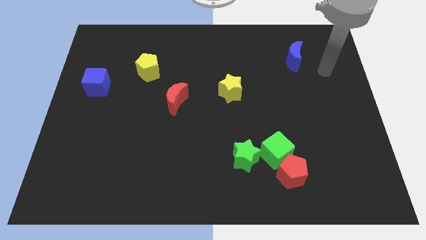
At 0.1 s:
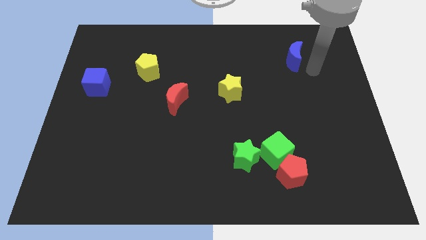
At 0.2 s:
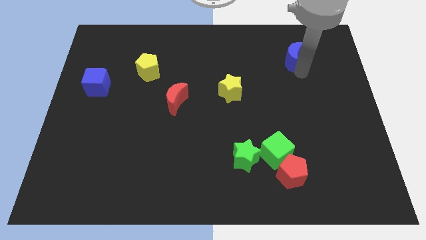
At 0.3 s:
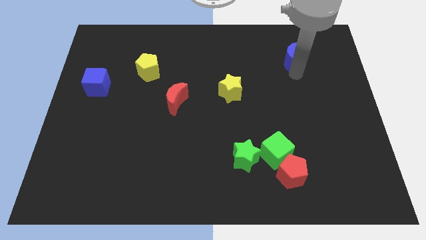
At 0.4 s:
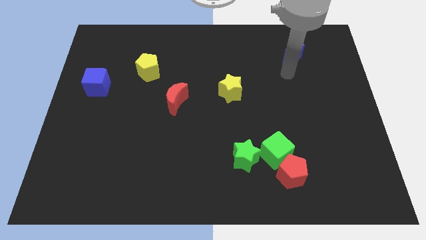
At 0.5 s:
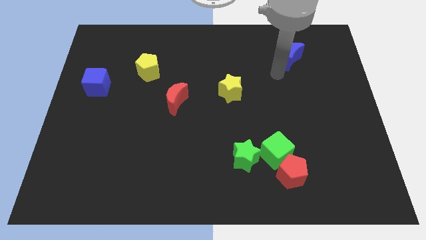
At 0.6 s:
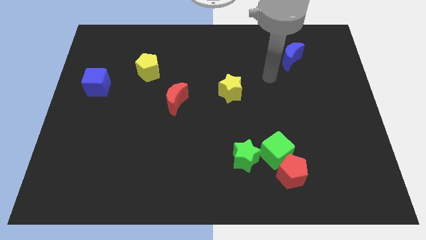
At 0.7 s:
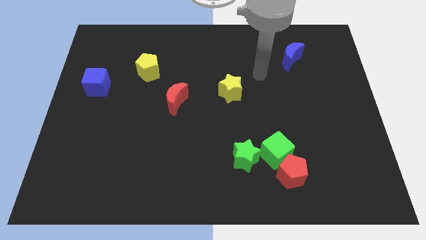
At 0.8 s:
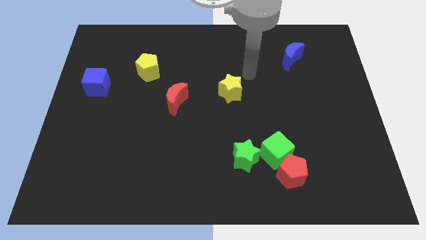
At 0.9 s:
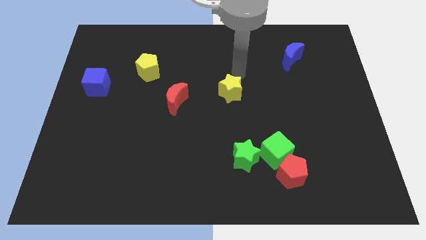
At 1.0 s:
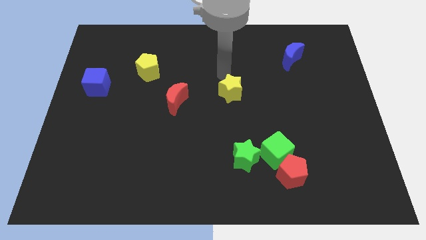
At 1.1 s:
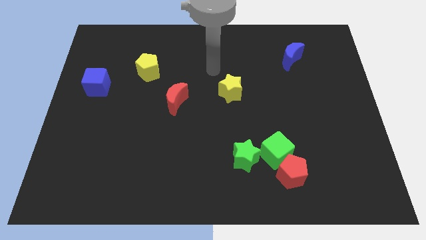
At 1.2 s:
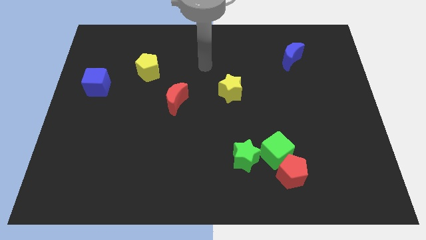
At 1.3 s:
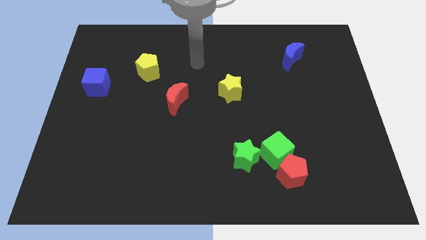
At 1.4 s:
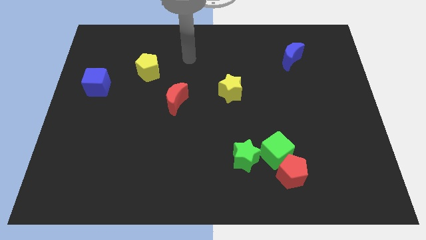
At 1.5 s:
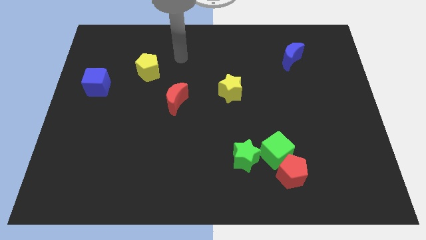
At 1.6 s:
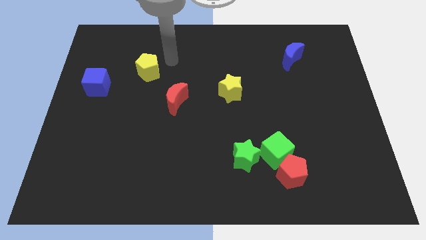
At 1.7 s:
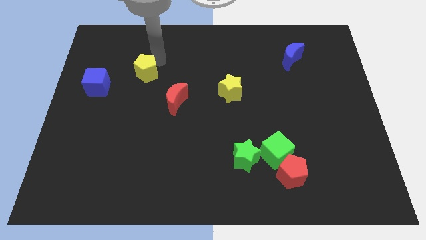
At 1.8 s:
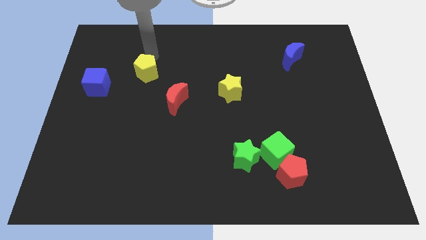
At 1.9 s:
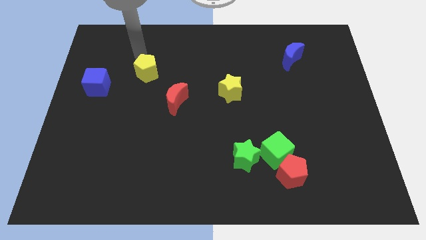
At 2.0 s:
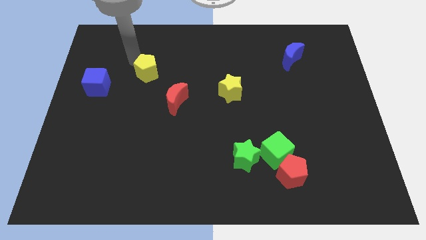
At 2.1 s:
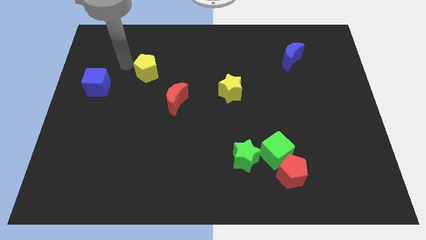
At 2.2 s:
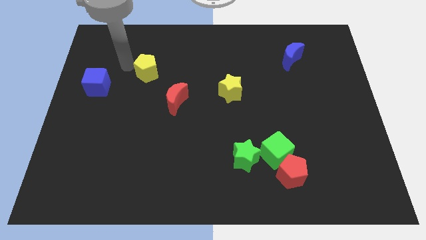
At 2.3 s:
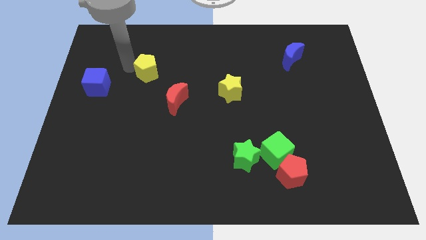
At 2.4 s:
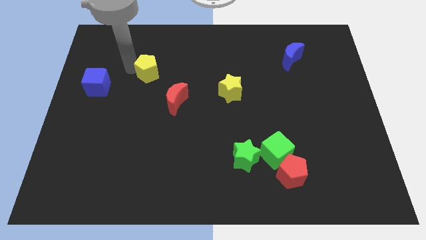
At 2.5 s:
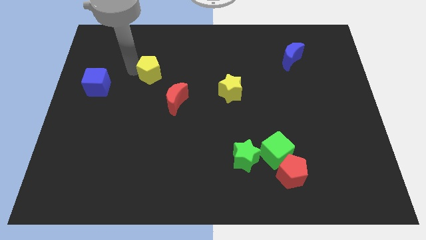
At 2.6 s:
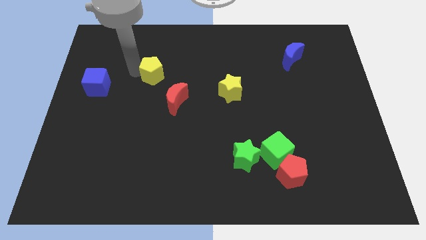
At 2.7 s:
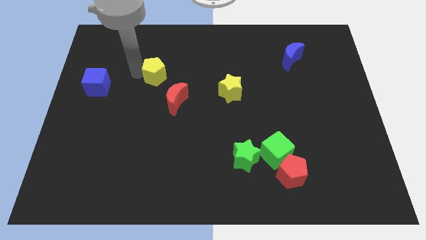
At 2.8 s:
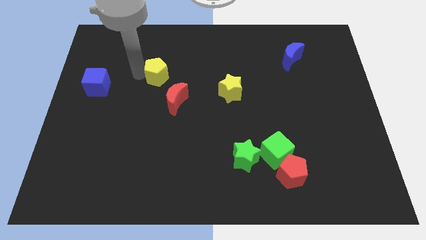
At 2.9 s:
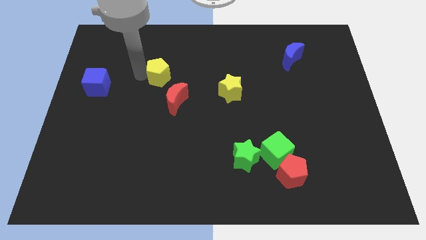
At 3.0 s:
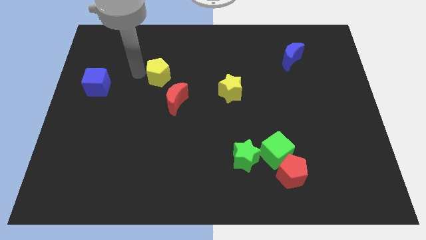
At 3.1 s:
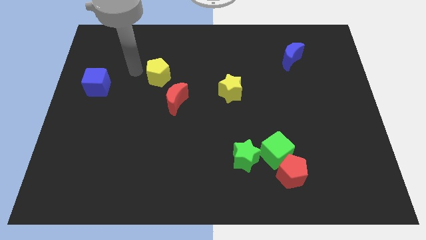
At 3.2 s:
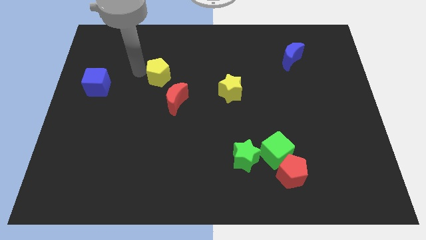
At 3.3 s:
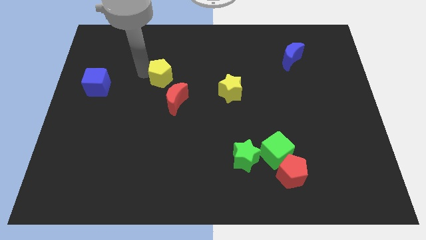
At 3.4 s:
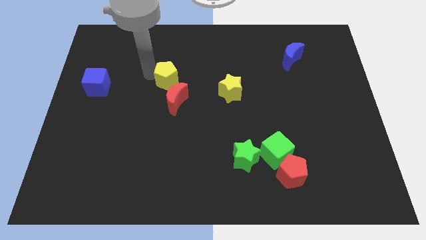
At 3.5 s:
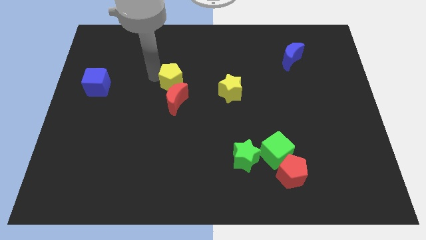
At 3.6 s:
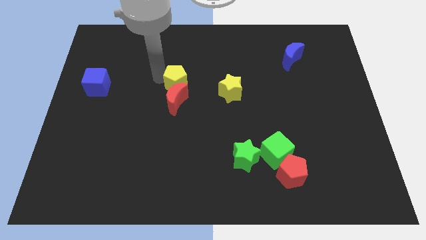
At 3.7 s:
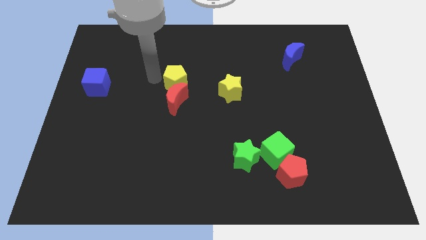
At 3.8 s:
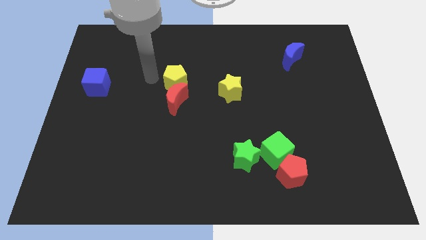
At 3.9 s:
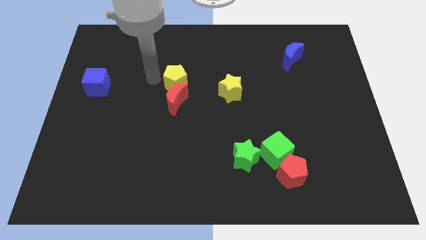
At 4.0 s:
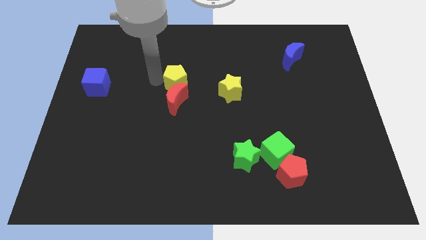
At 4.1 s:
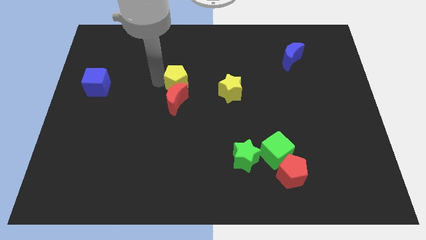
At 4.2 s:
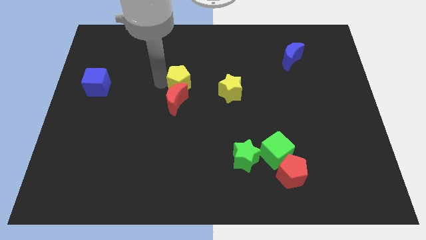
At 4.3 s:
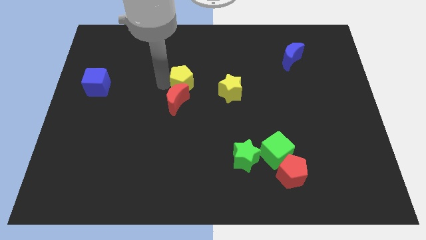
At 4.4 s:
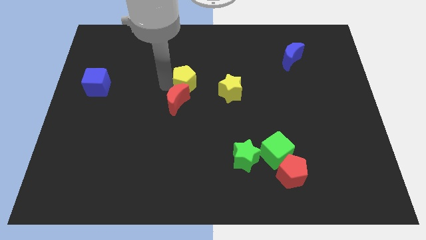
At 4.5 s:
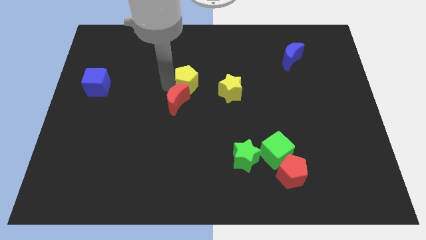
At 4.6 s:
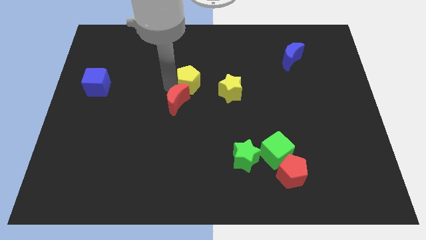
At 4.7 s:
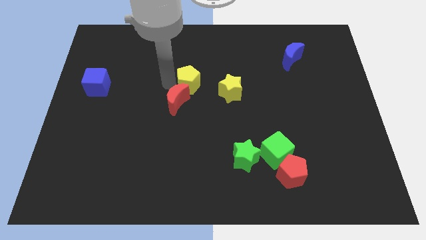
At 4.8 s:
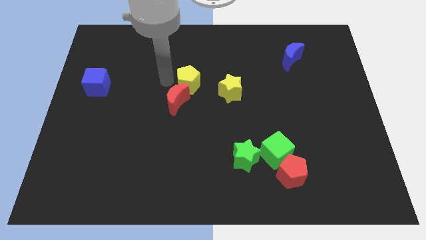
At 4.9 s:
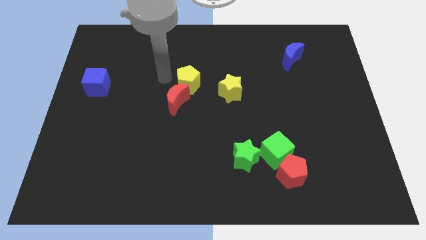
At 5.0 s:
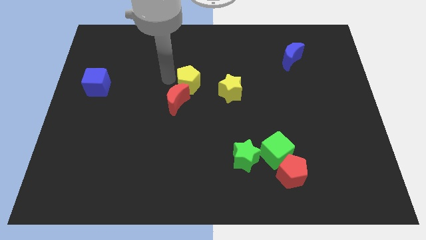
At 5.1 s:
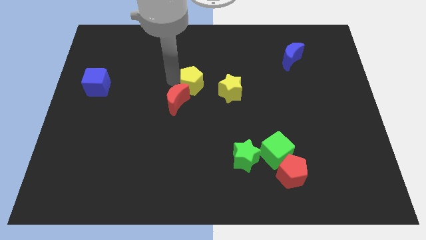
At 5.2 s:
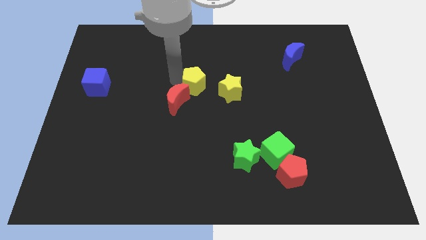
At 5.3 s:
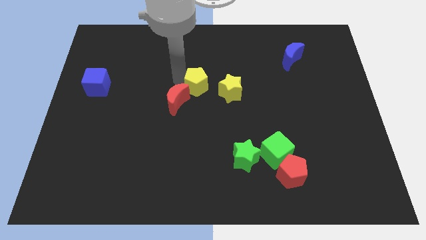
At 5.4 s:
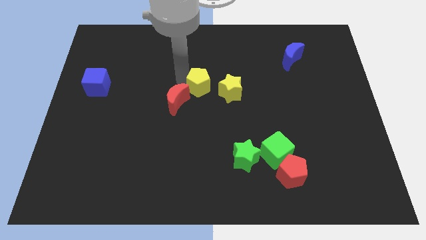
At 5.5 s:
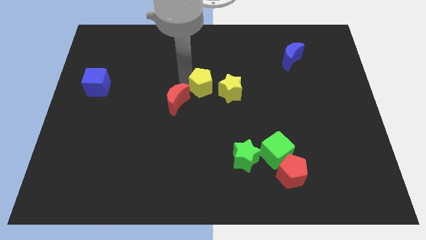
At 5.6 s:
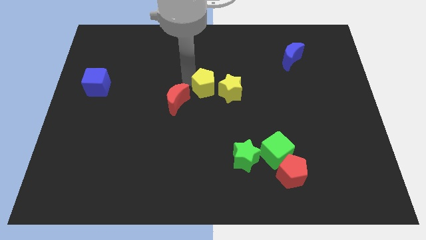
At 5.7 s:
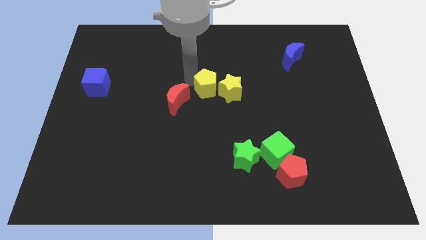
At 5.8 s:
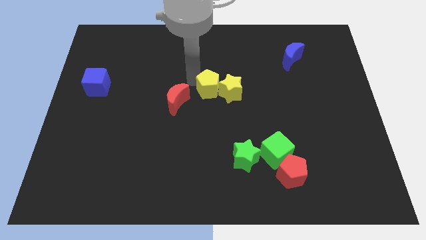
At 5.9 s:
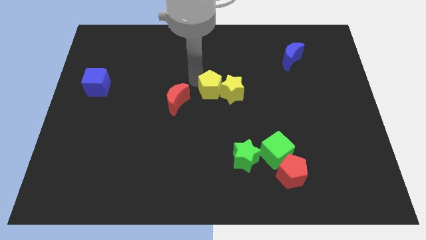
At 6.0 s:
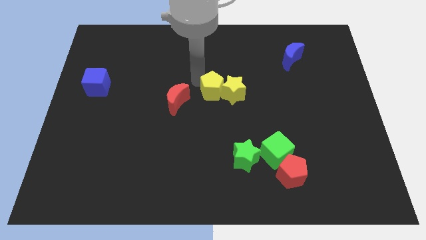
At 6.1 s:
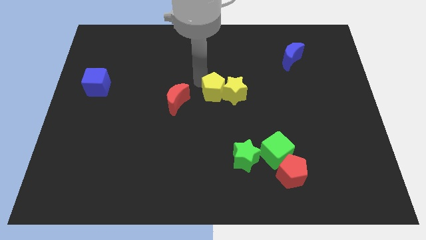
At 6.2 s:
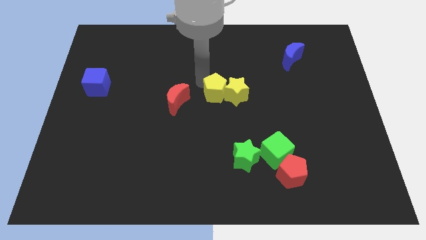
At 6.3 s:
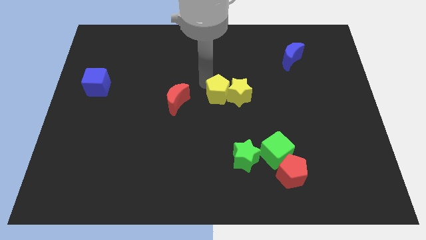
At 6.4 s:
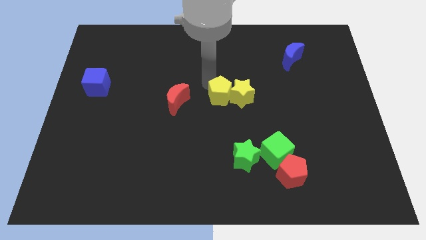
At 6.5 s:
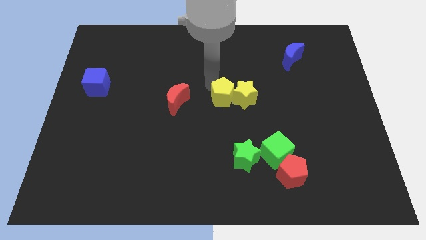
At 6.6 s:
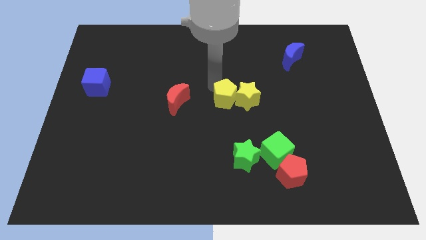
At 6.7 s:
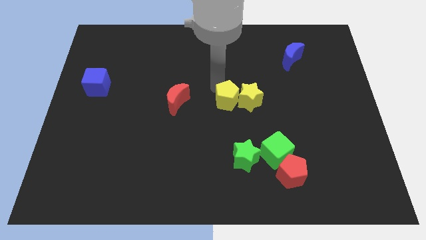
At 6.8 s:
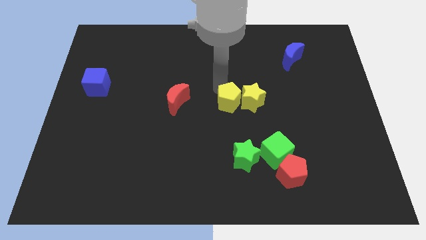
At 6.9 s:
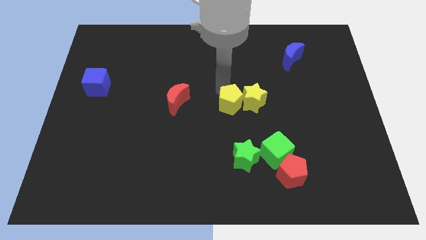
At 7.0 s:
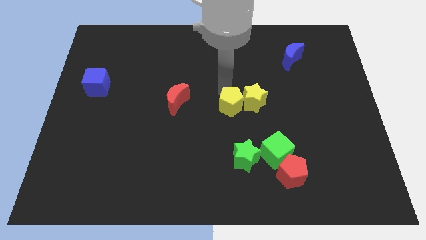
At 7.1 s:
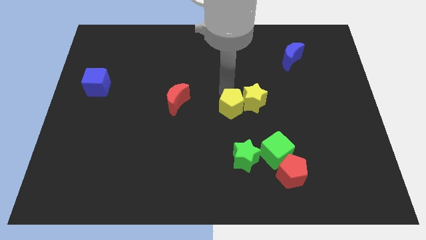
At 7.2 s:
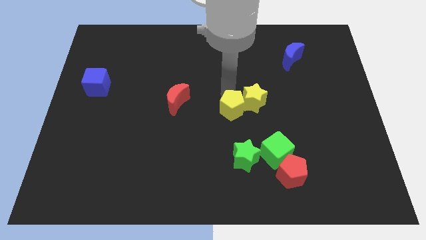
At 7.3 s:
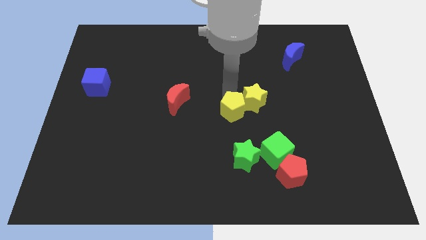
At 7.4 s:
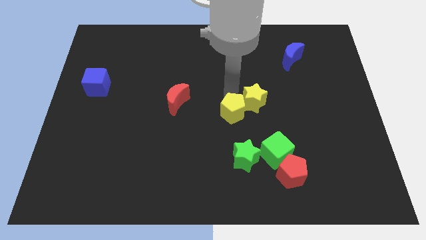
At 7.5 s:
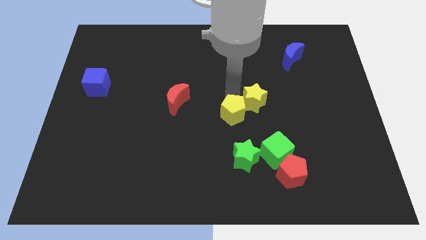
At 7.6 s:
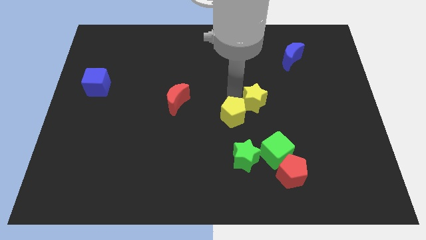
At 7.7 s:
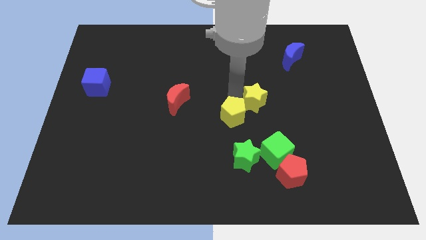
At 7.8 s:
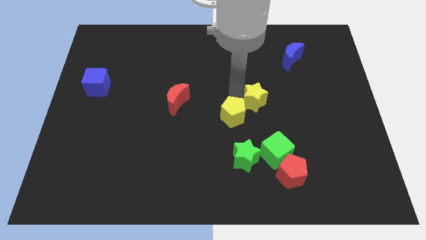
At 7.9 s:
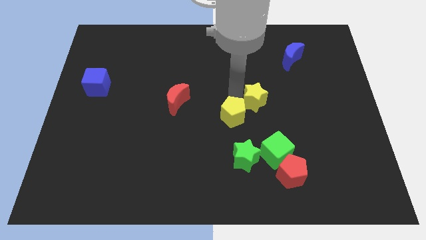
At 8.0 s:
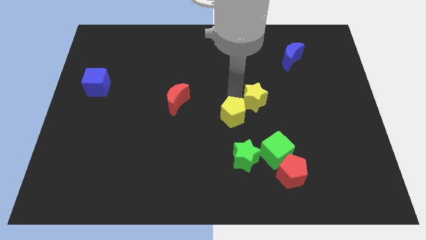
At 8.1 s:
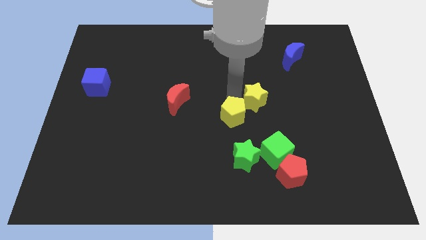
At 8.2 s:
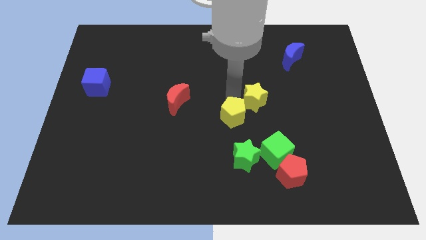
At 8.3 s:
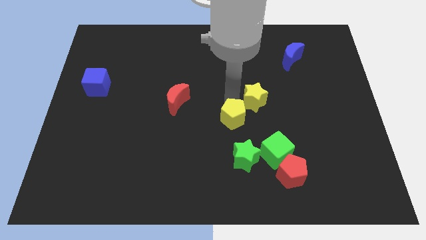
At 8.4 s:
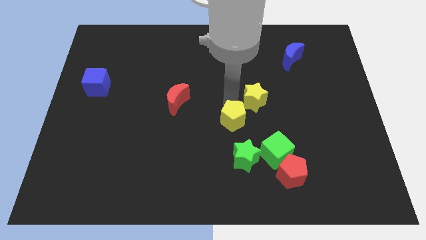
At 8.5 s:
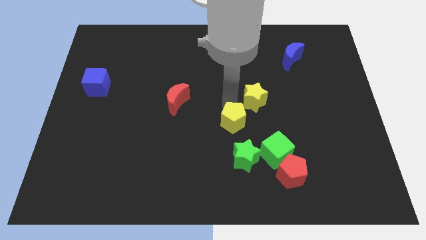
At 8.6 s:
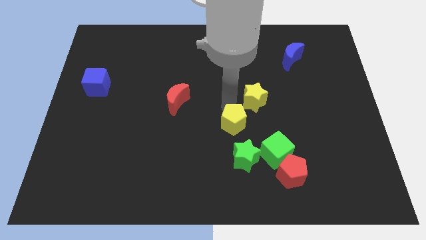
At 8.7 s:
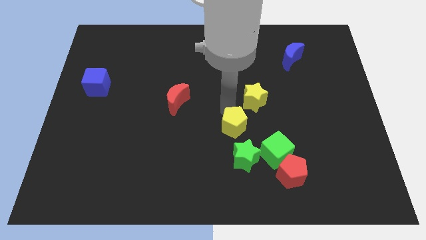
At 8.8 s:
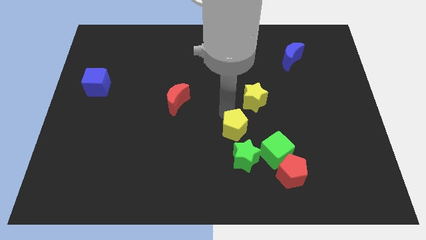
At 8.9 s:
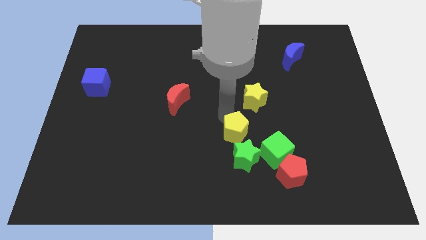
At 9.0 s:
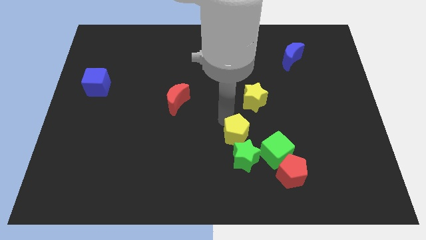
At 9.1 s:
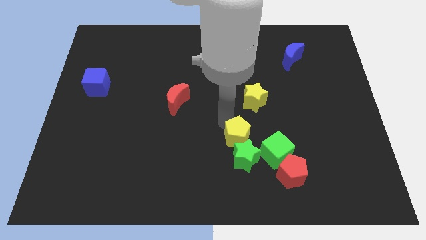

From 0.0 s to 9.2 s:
put the yellow pentagon next to the green star
